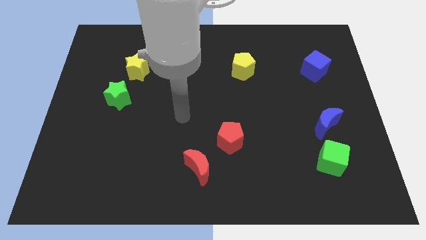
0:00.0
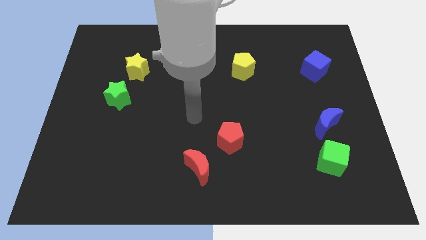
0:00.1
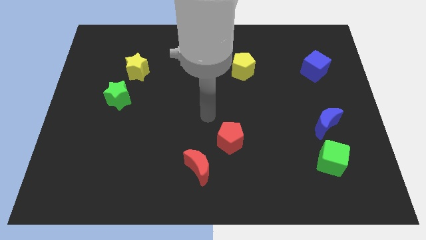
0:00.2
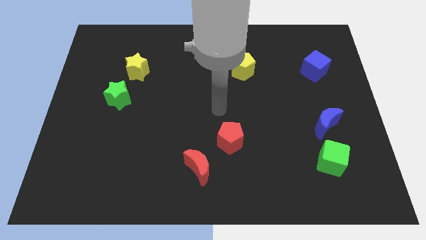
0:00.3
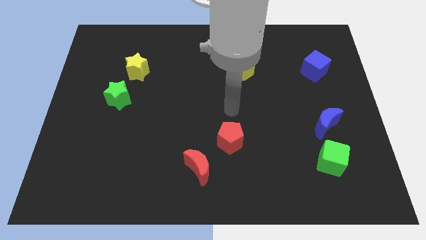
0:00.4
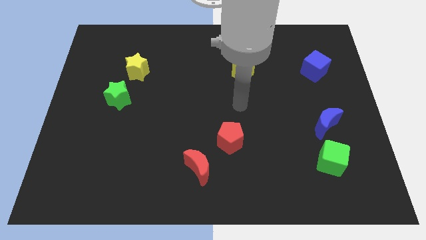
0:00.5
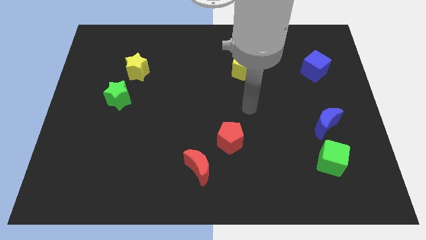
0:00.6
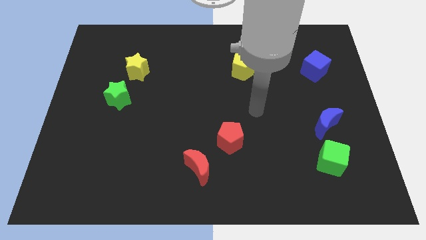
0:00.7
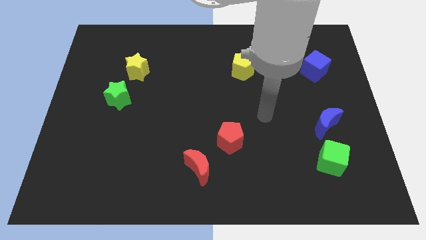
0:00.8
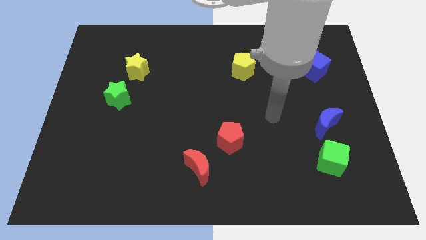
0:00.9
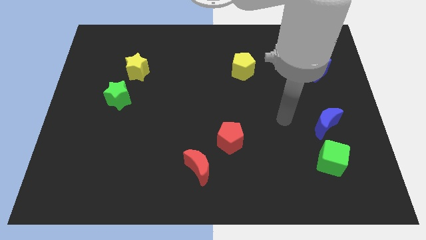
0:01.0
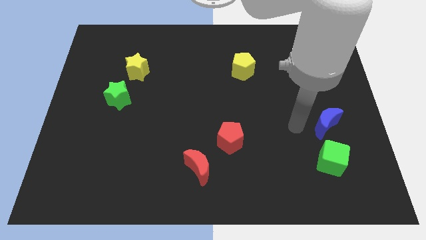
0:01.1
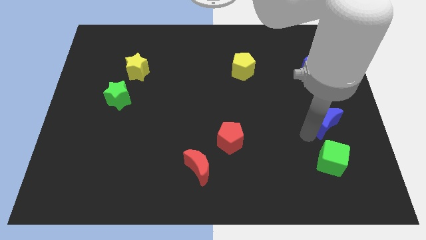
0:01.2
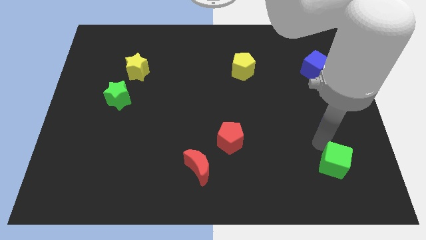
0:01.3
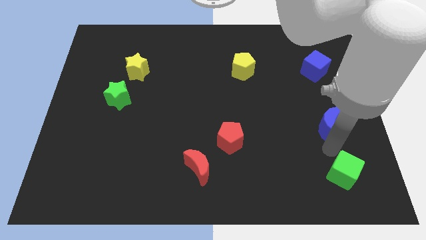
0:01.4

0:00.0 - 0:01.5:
pull the blue moon apart from the green cube

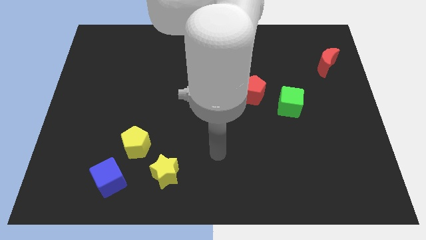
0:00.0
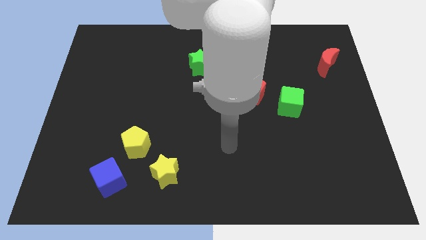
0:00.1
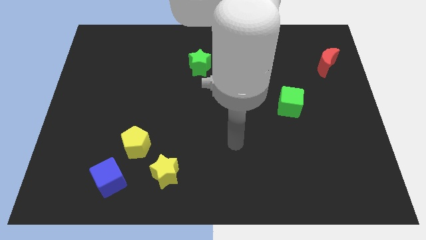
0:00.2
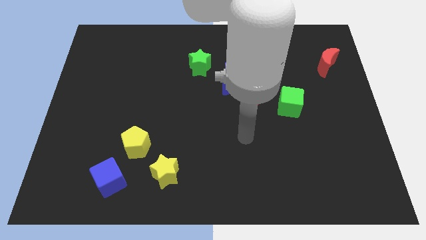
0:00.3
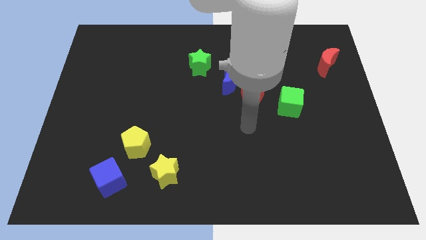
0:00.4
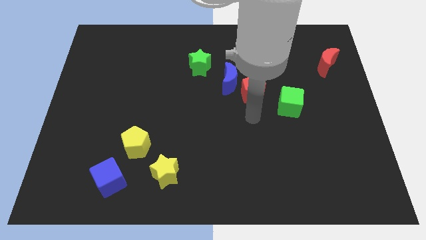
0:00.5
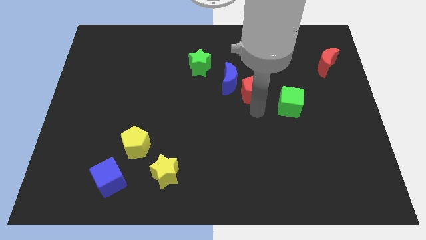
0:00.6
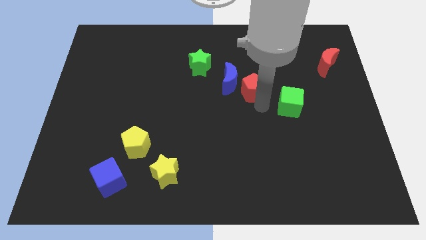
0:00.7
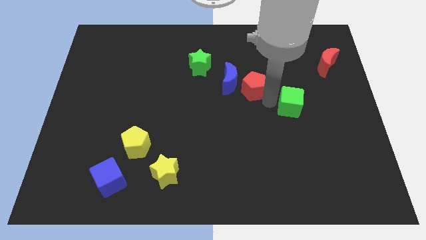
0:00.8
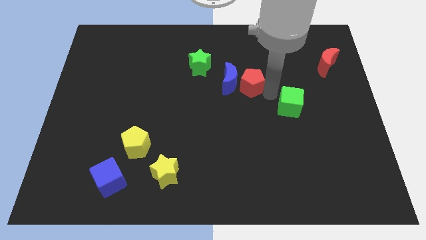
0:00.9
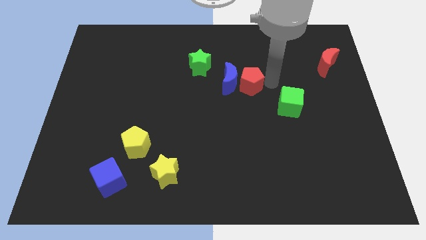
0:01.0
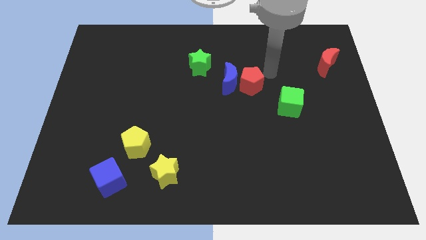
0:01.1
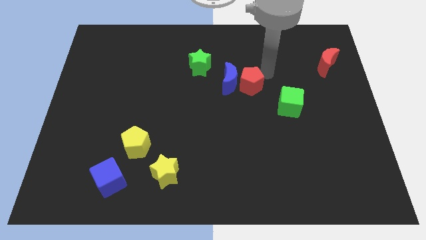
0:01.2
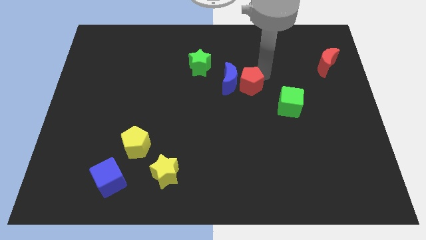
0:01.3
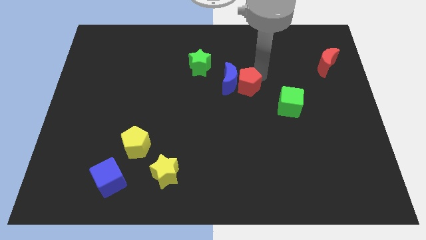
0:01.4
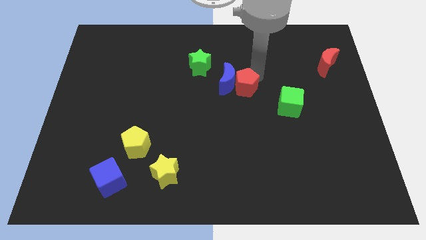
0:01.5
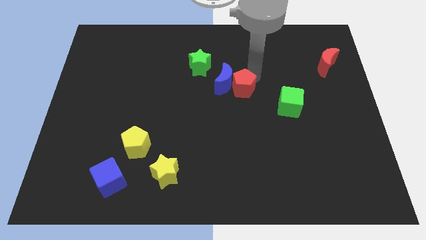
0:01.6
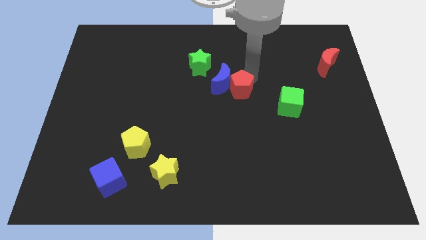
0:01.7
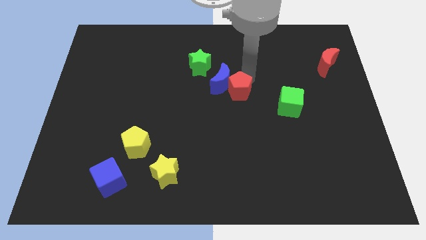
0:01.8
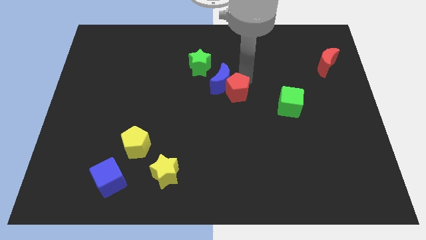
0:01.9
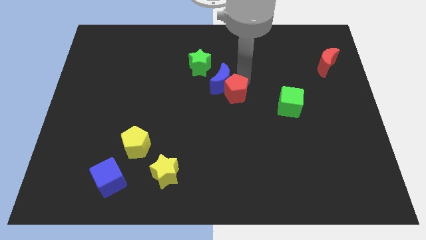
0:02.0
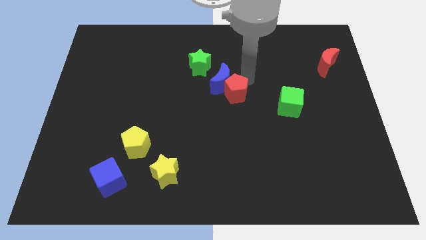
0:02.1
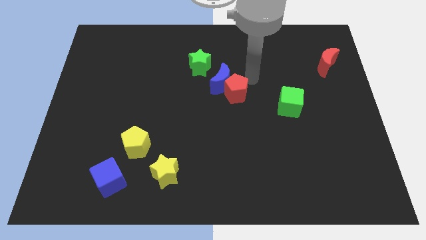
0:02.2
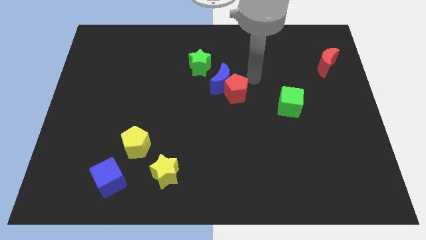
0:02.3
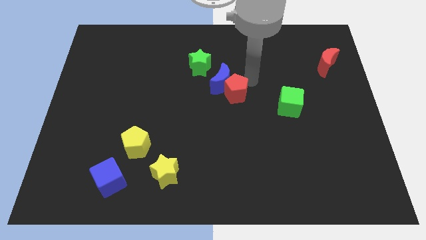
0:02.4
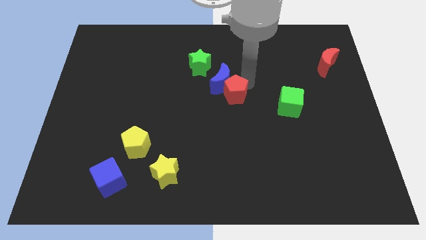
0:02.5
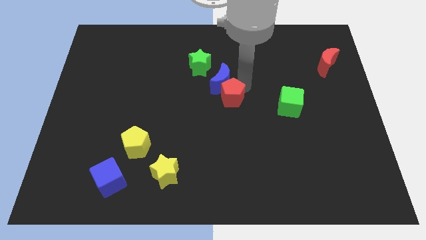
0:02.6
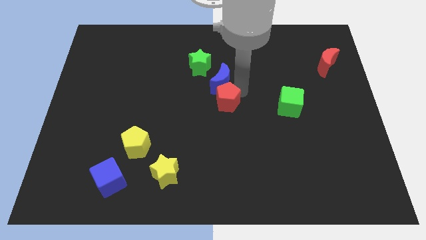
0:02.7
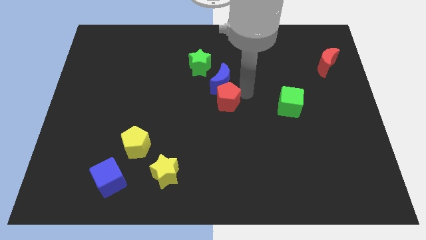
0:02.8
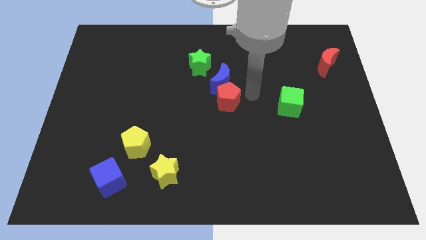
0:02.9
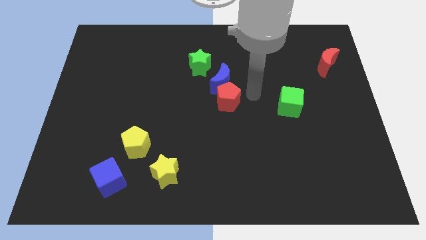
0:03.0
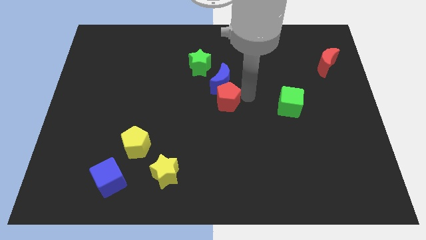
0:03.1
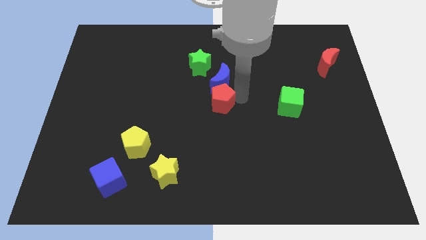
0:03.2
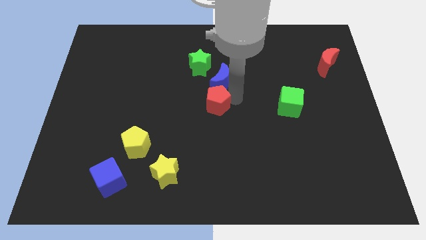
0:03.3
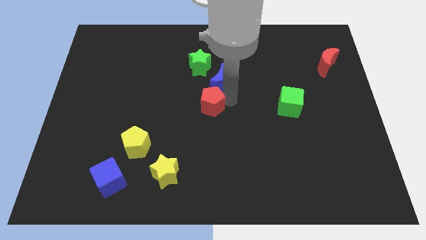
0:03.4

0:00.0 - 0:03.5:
separate the red pentagon from the blue moon and green cube

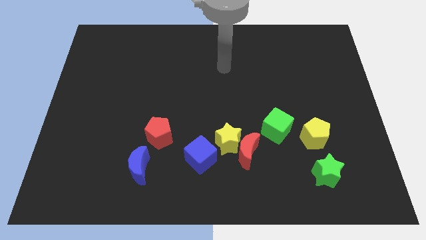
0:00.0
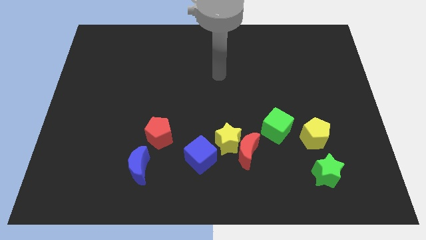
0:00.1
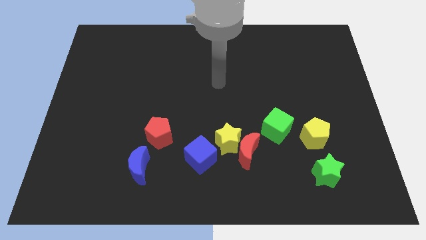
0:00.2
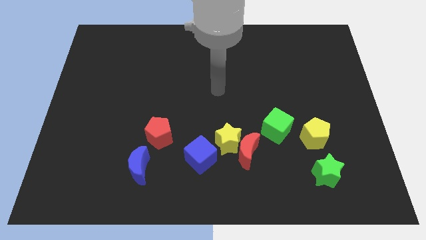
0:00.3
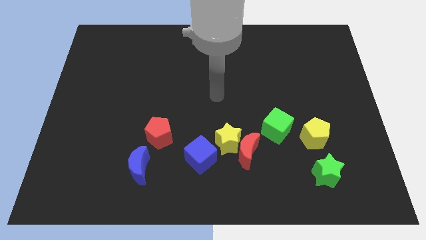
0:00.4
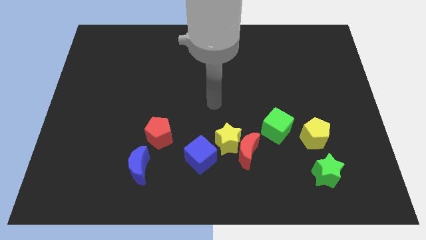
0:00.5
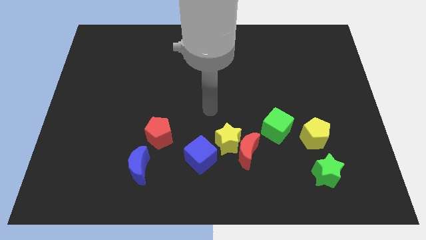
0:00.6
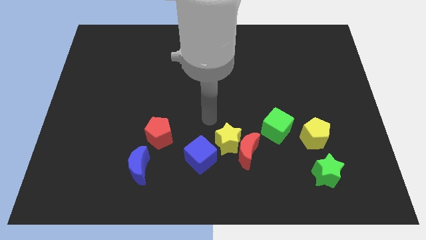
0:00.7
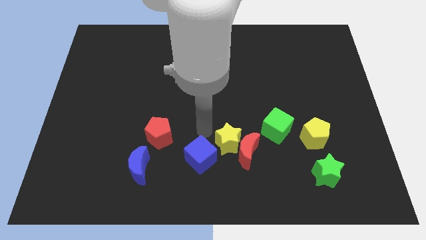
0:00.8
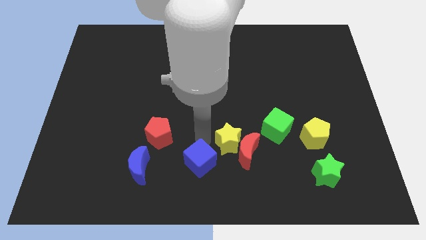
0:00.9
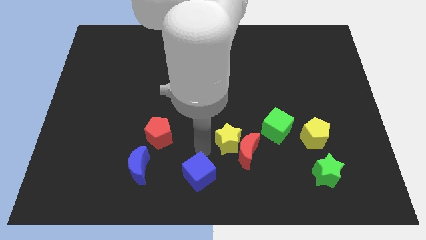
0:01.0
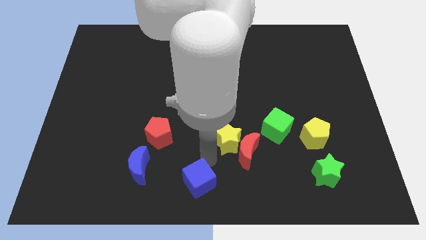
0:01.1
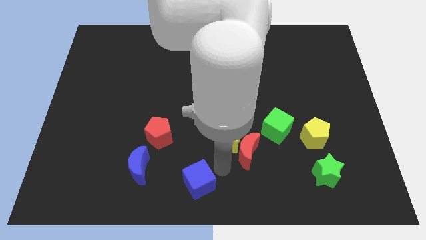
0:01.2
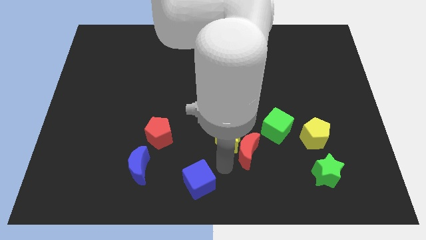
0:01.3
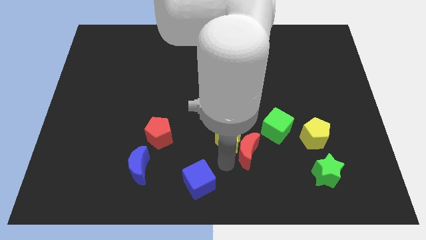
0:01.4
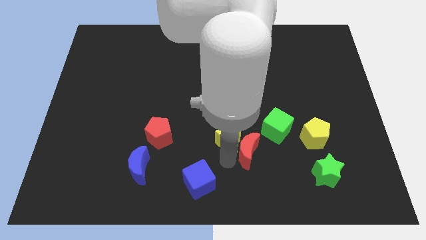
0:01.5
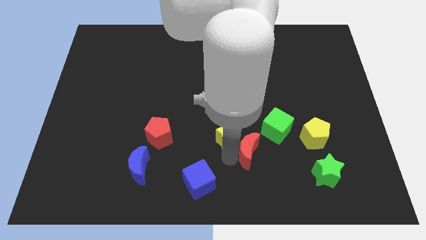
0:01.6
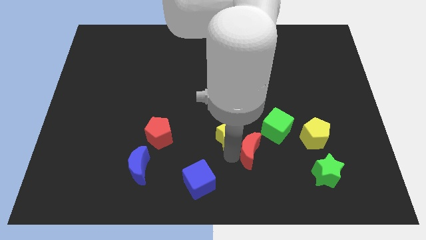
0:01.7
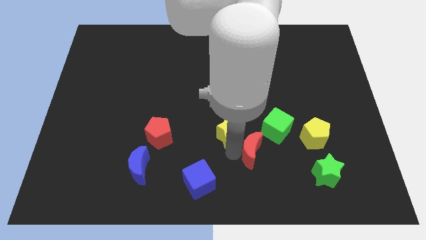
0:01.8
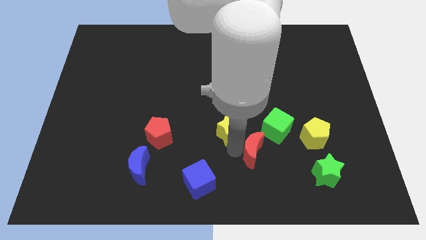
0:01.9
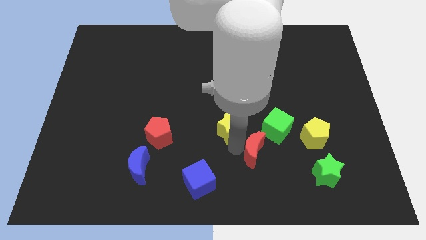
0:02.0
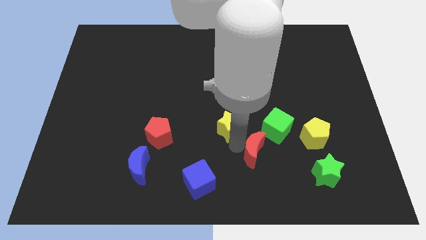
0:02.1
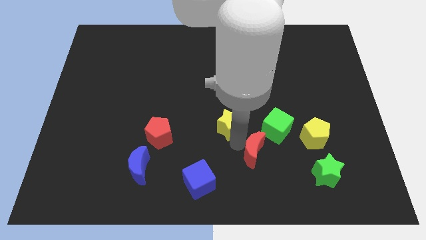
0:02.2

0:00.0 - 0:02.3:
move the yellow star away from the red moon and blue cube

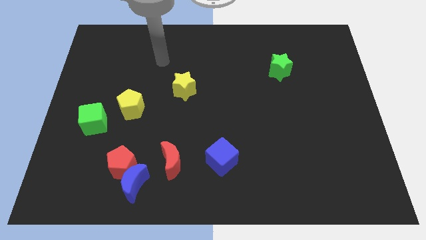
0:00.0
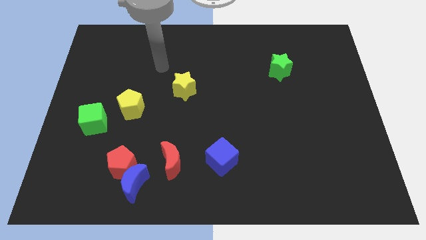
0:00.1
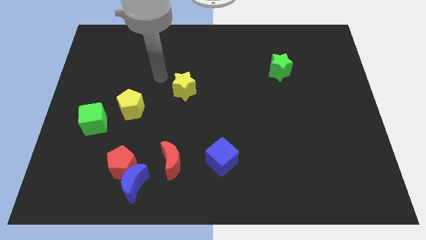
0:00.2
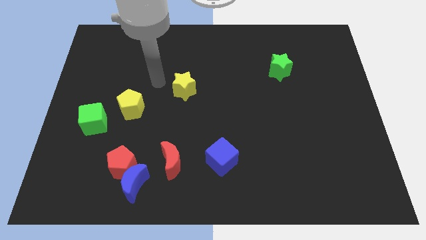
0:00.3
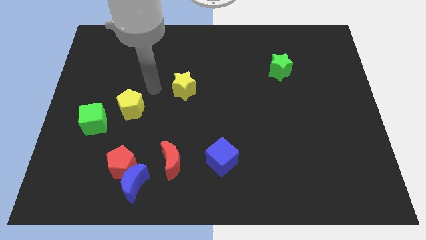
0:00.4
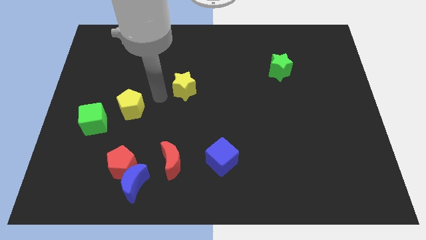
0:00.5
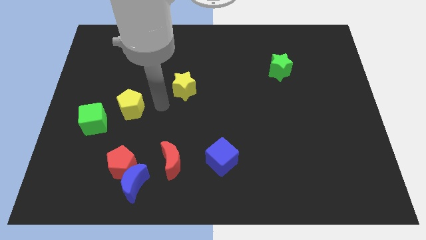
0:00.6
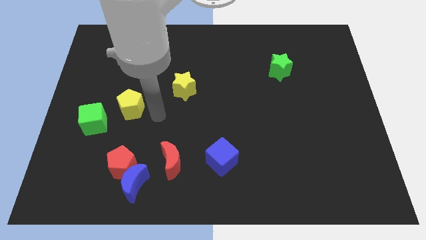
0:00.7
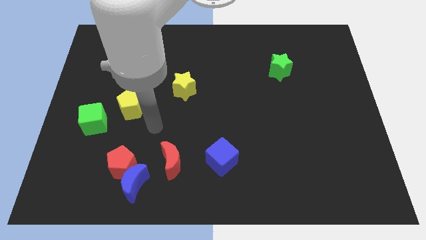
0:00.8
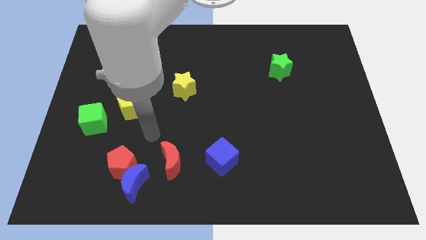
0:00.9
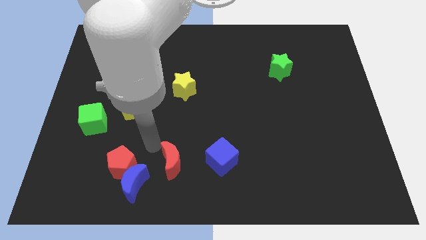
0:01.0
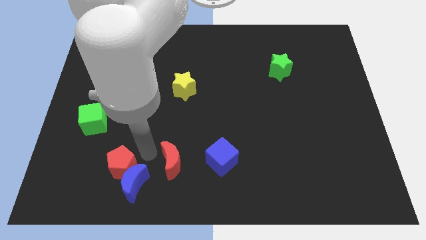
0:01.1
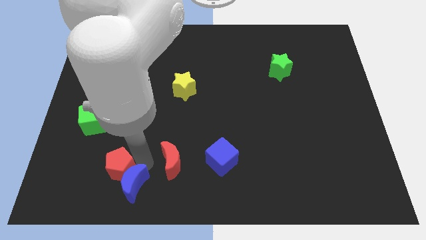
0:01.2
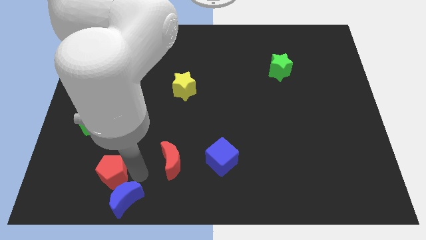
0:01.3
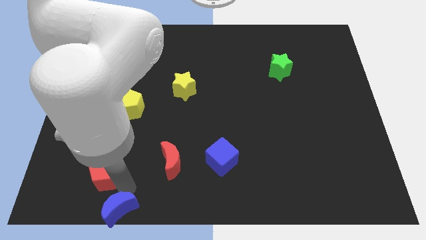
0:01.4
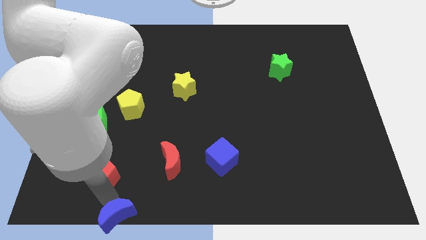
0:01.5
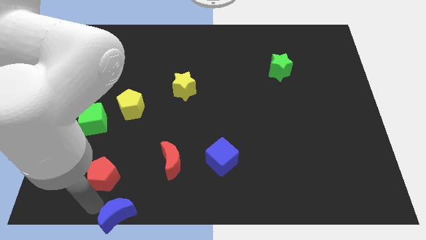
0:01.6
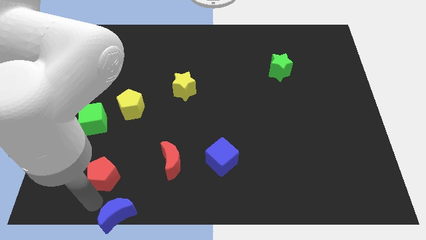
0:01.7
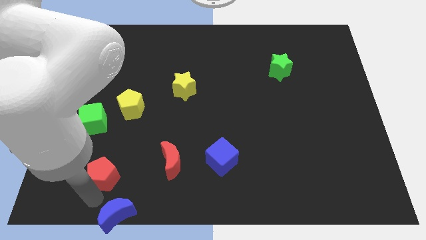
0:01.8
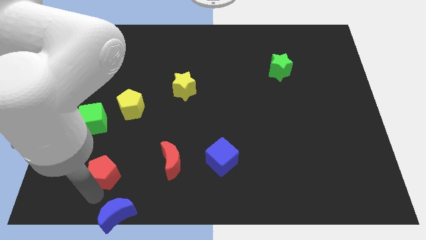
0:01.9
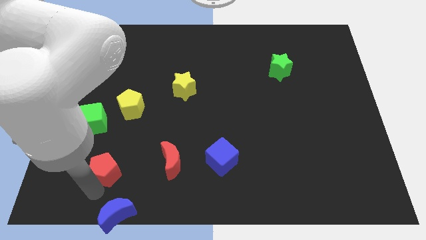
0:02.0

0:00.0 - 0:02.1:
separate the red pentagon from the blue moon
